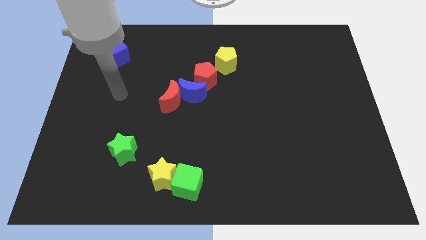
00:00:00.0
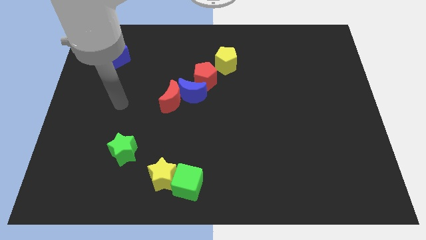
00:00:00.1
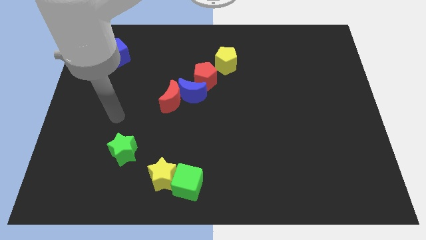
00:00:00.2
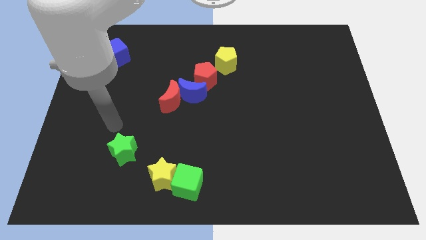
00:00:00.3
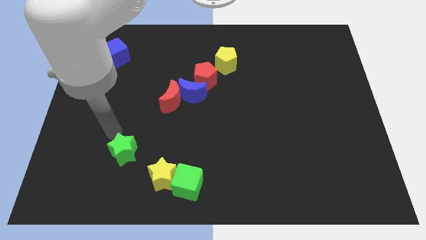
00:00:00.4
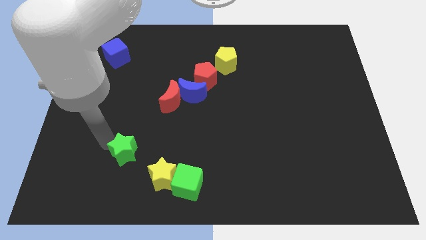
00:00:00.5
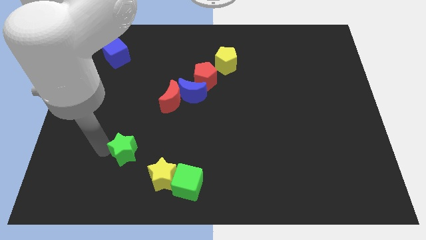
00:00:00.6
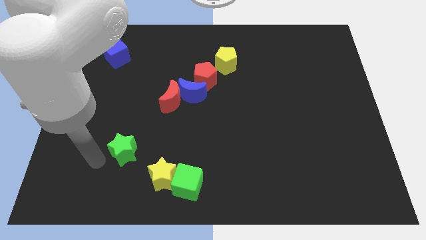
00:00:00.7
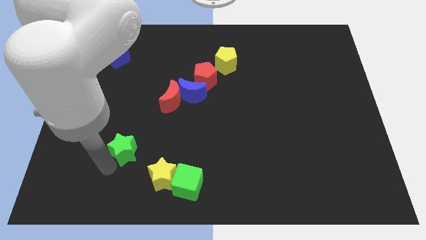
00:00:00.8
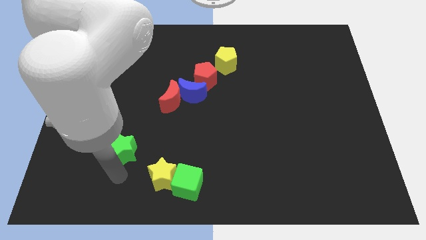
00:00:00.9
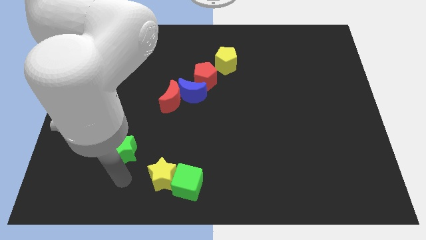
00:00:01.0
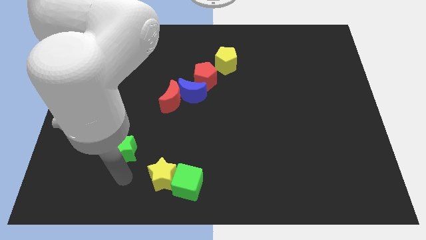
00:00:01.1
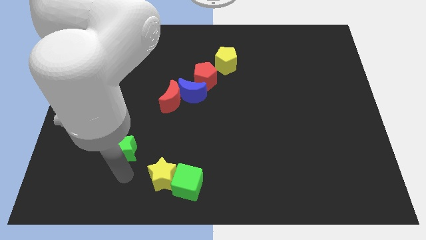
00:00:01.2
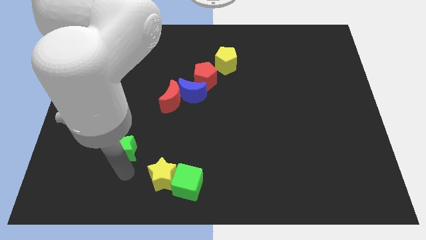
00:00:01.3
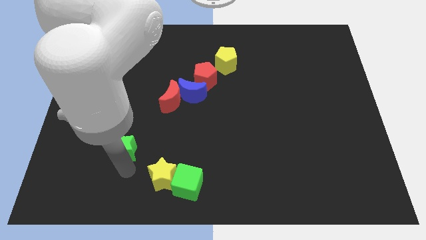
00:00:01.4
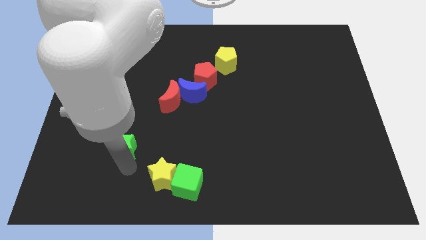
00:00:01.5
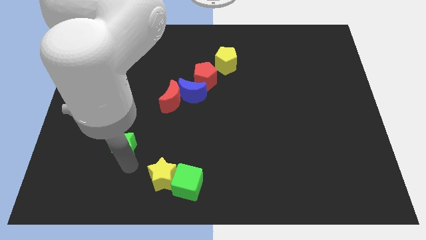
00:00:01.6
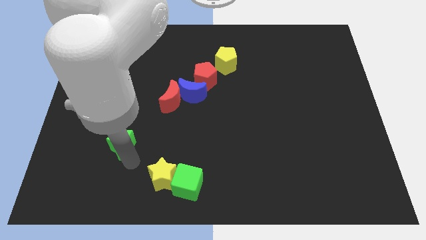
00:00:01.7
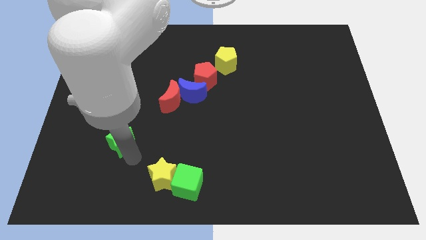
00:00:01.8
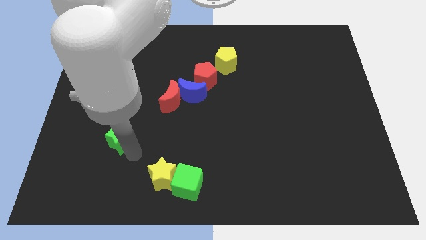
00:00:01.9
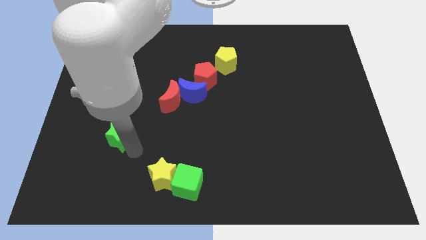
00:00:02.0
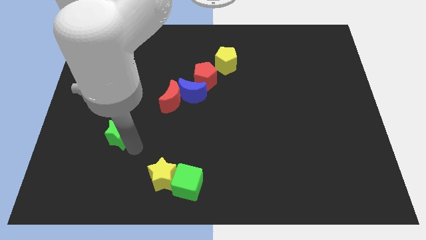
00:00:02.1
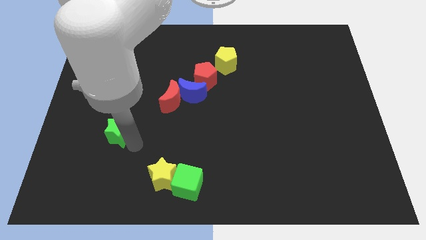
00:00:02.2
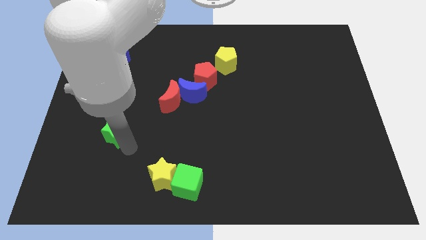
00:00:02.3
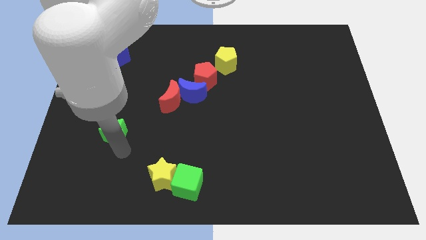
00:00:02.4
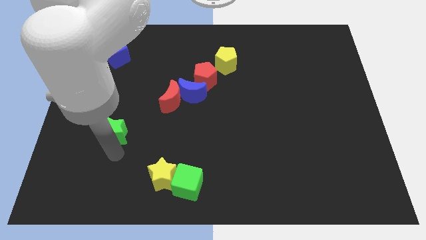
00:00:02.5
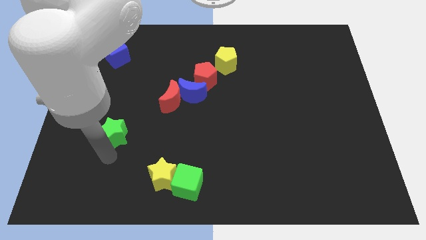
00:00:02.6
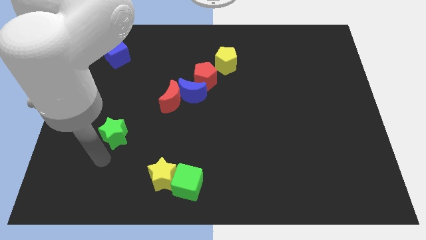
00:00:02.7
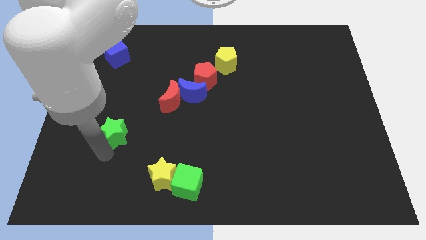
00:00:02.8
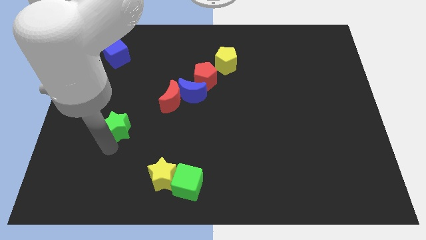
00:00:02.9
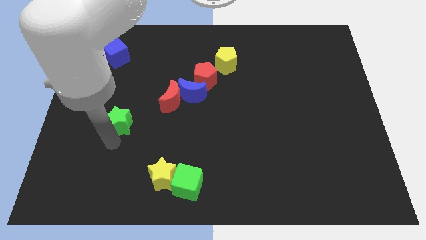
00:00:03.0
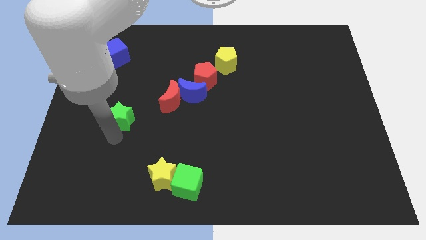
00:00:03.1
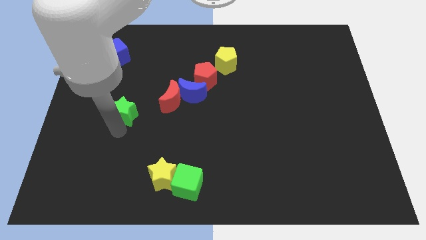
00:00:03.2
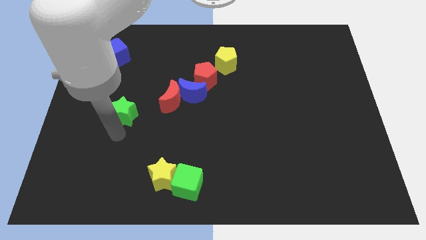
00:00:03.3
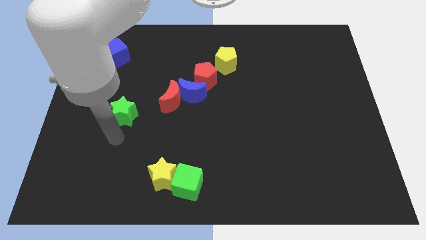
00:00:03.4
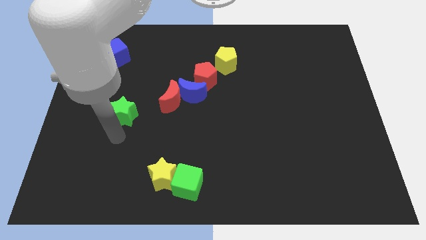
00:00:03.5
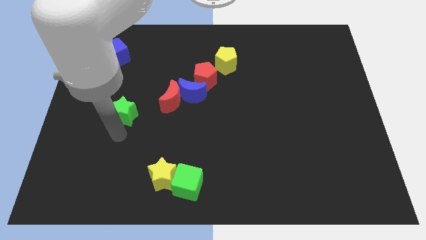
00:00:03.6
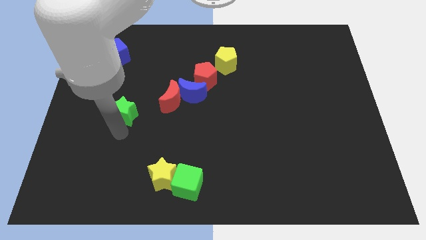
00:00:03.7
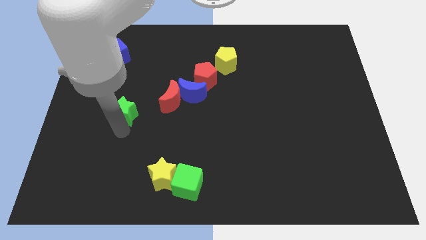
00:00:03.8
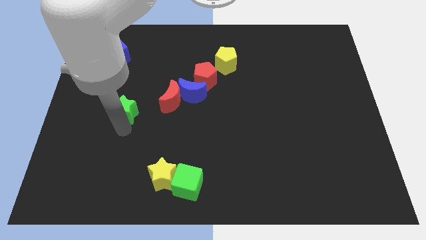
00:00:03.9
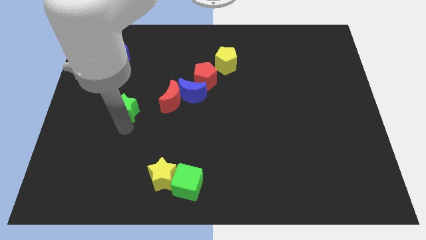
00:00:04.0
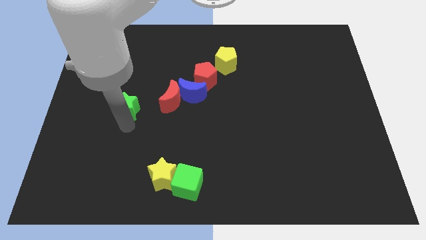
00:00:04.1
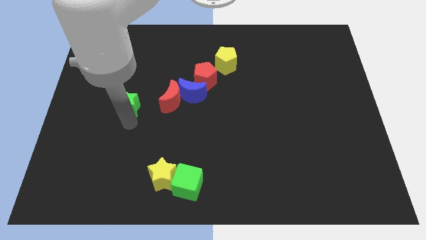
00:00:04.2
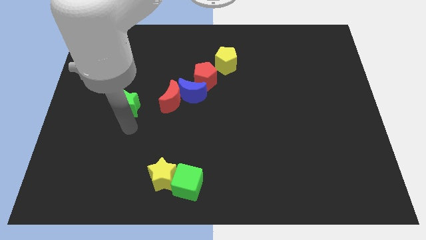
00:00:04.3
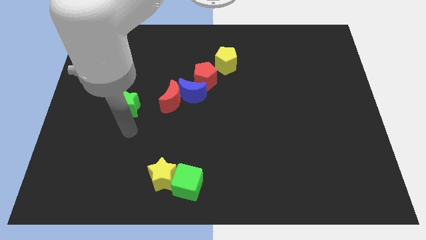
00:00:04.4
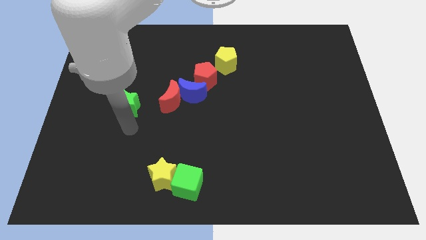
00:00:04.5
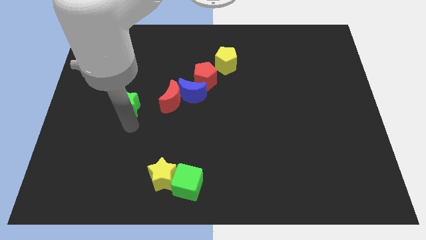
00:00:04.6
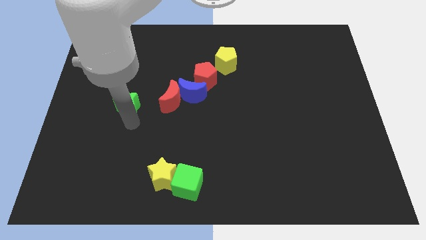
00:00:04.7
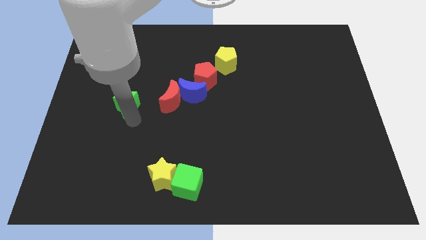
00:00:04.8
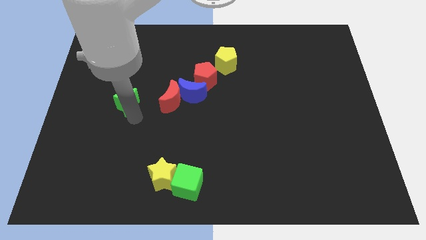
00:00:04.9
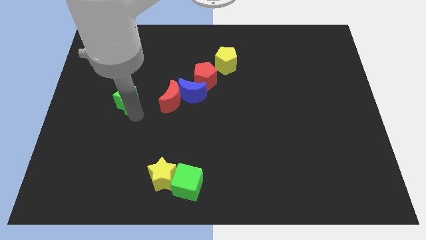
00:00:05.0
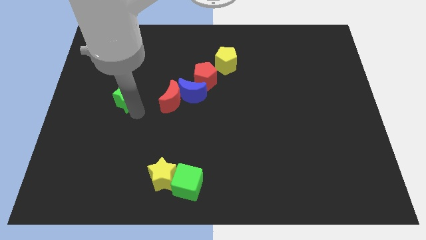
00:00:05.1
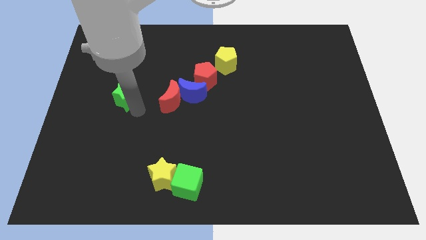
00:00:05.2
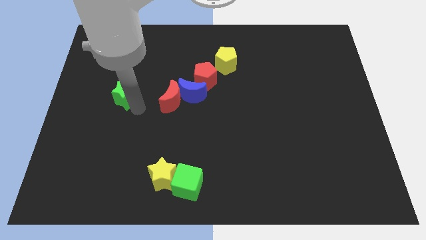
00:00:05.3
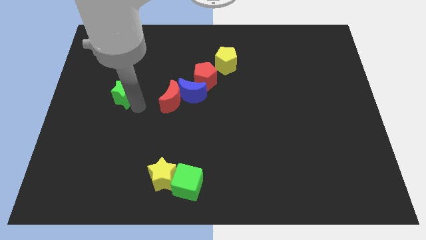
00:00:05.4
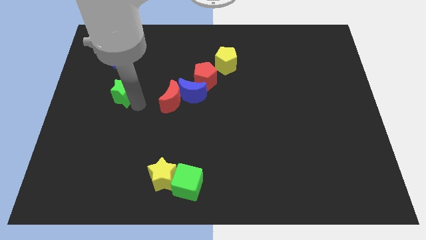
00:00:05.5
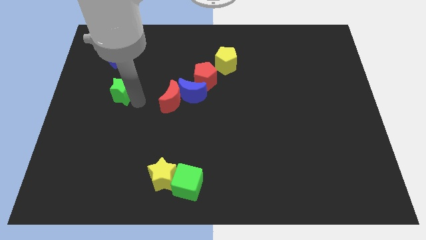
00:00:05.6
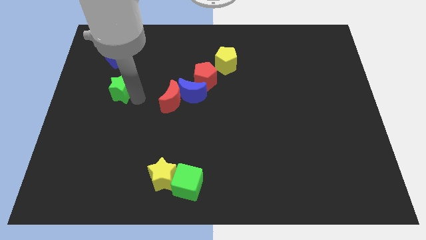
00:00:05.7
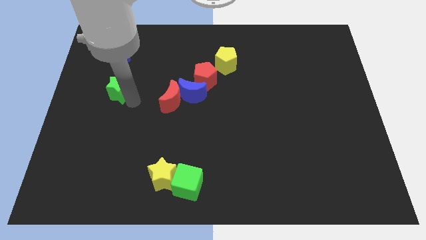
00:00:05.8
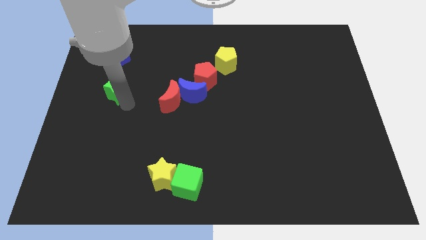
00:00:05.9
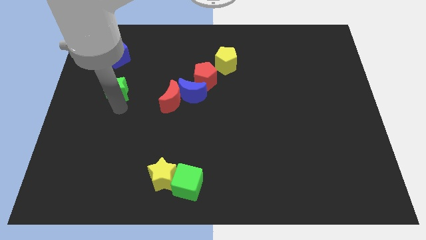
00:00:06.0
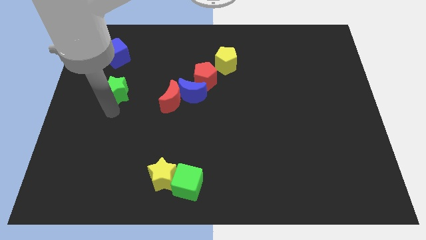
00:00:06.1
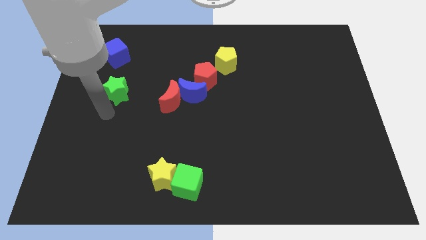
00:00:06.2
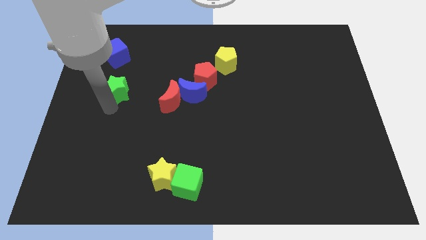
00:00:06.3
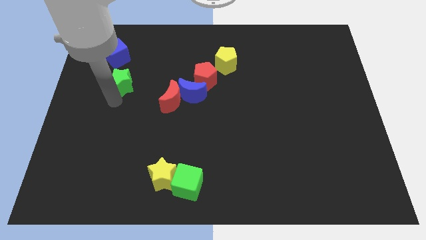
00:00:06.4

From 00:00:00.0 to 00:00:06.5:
put the green star to the bottom right of the blue cube
